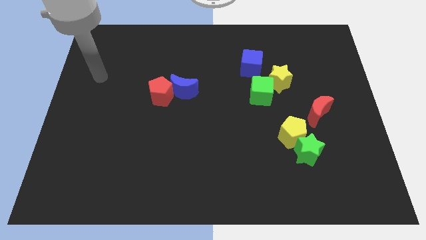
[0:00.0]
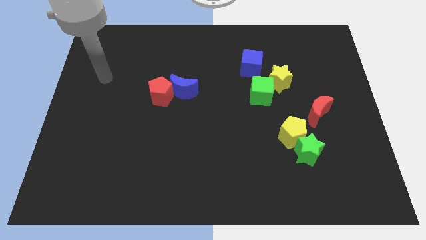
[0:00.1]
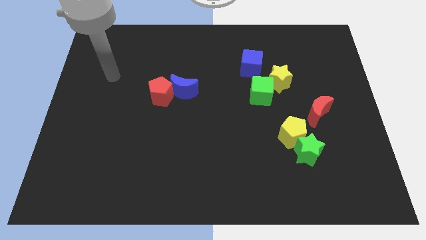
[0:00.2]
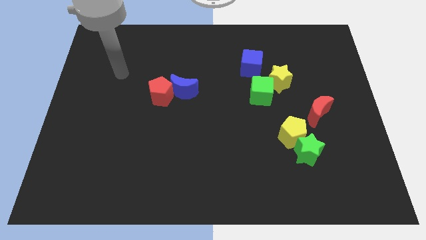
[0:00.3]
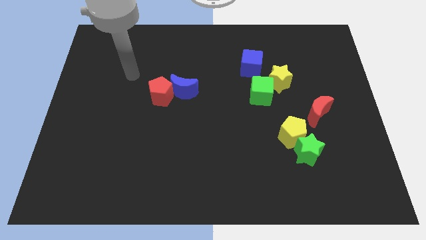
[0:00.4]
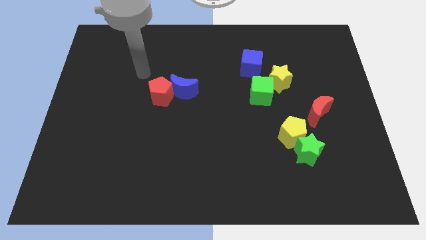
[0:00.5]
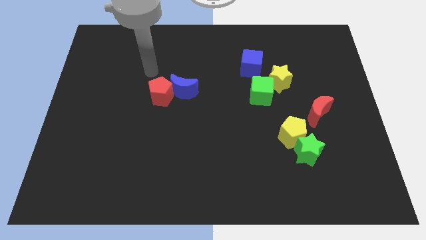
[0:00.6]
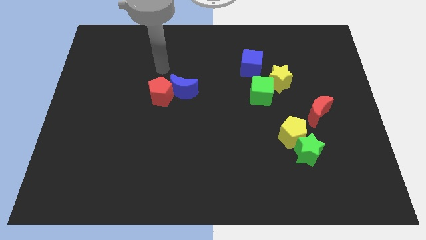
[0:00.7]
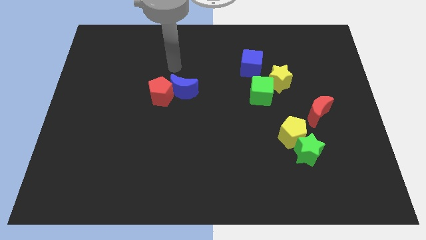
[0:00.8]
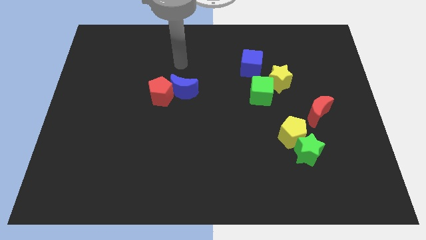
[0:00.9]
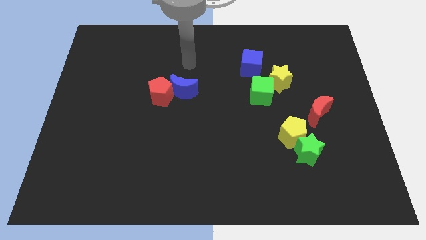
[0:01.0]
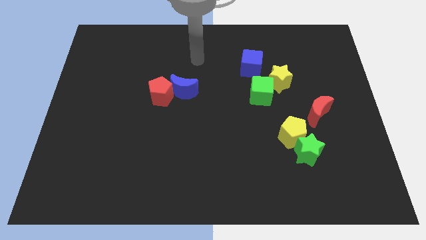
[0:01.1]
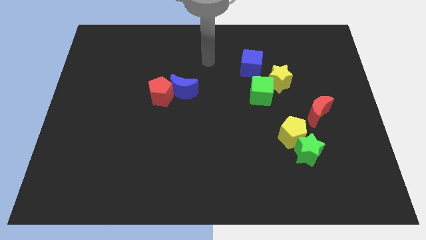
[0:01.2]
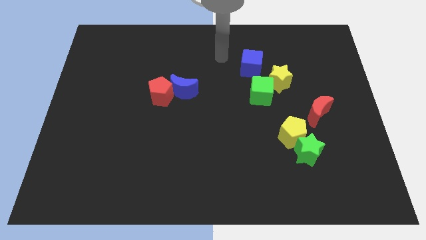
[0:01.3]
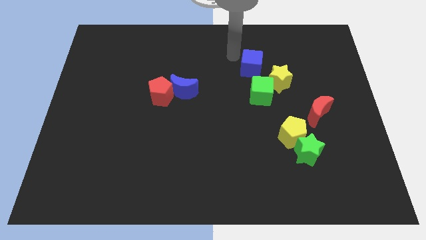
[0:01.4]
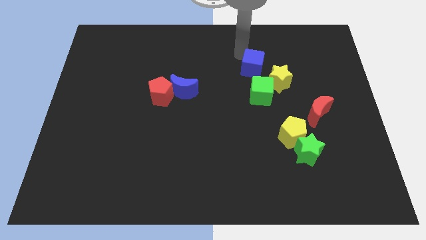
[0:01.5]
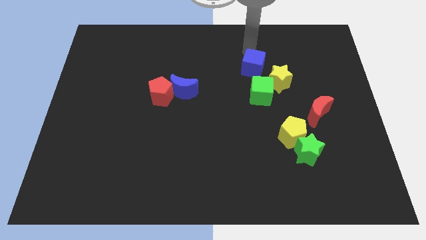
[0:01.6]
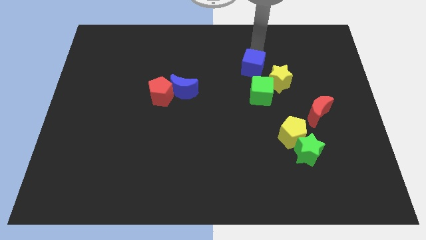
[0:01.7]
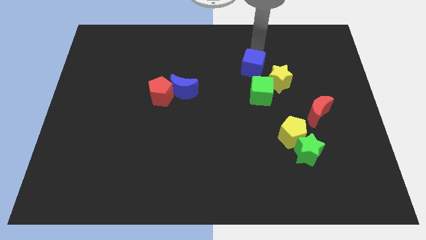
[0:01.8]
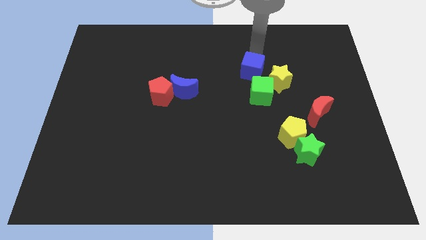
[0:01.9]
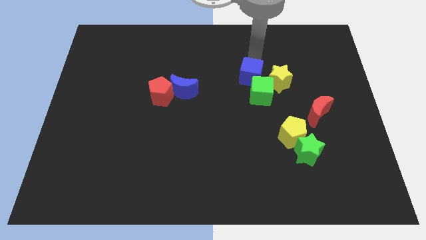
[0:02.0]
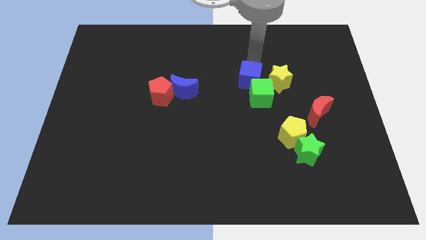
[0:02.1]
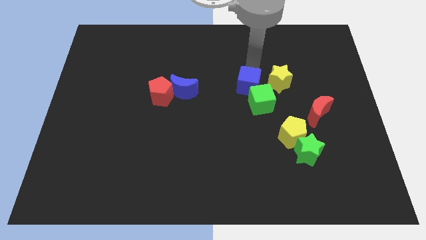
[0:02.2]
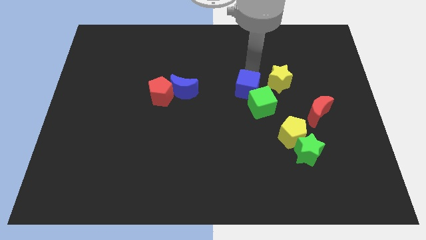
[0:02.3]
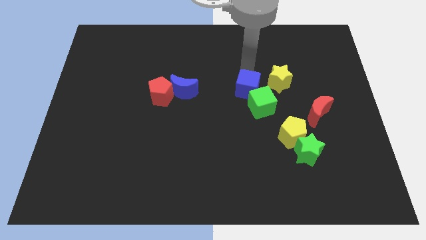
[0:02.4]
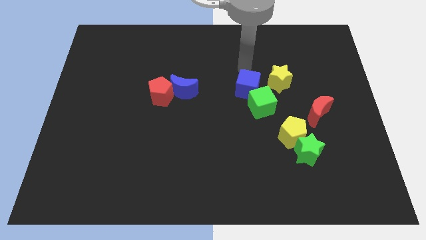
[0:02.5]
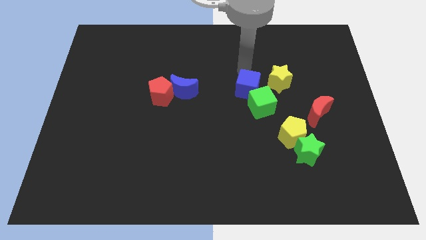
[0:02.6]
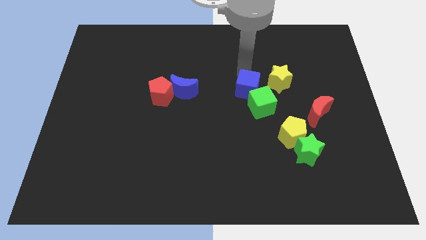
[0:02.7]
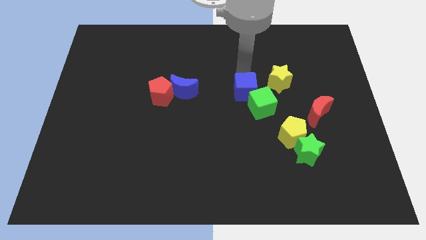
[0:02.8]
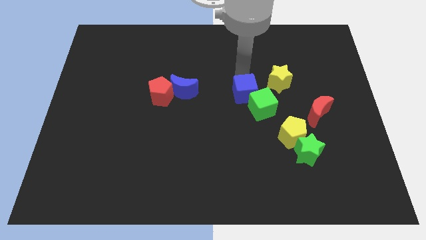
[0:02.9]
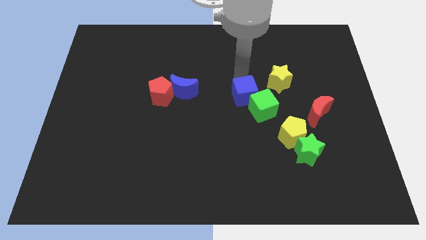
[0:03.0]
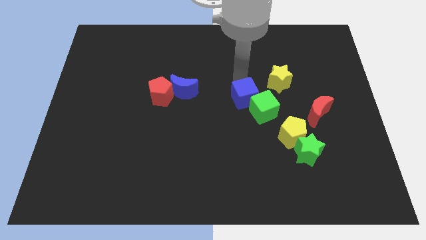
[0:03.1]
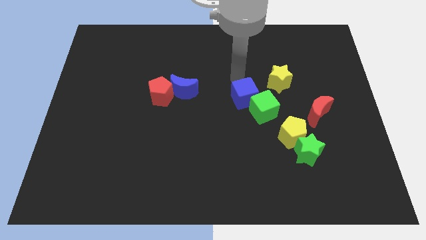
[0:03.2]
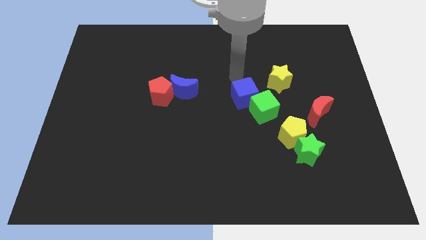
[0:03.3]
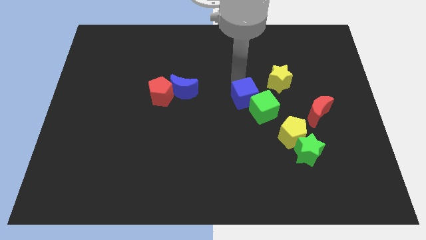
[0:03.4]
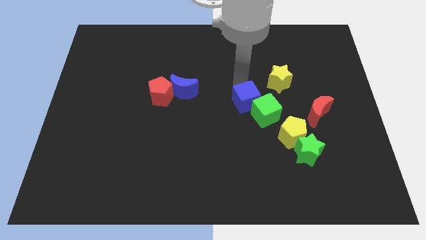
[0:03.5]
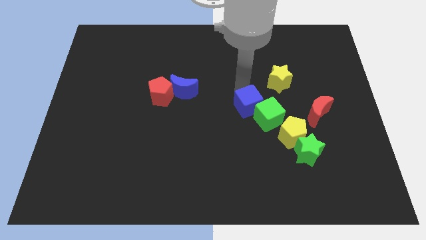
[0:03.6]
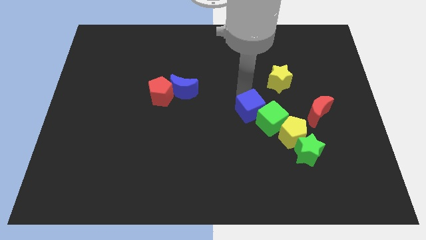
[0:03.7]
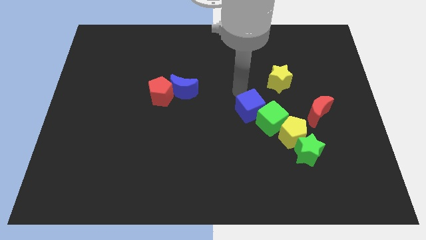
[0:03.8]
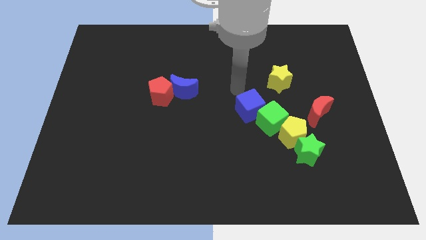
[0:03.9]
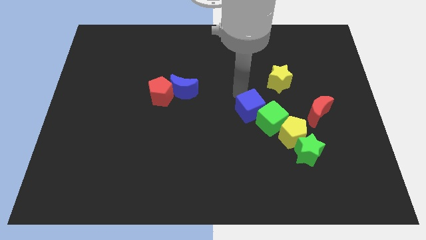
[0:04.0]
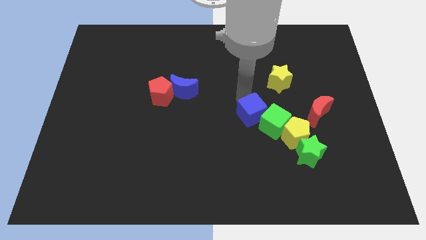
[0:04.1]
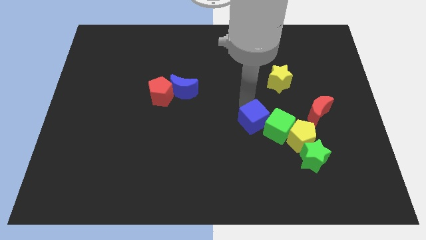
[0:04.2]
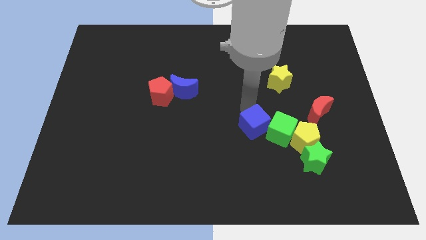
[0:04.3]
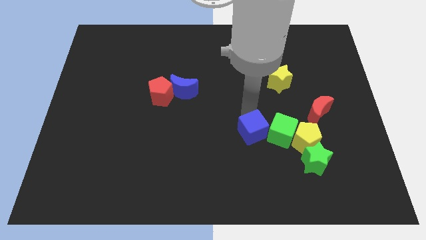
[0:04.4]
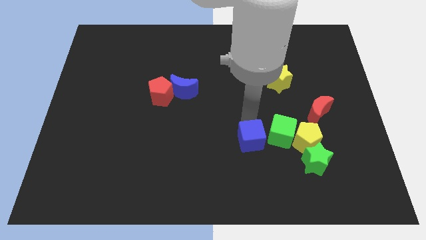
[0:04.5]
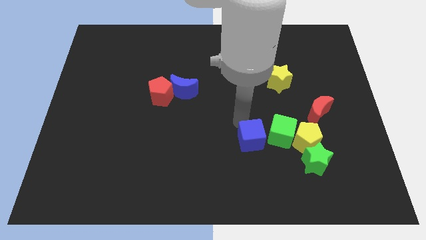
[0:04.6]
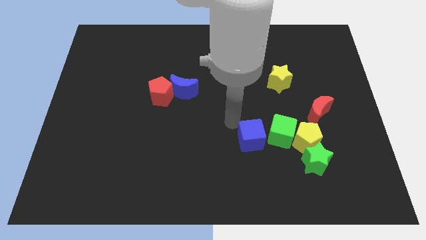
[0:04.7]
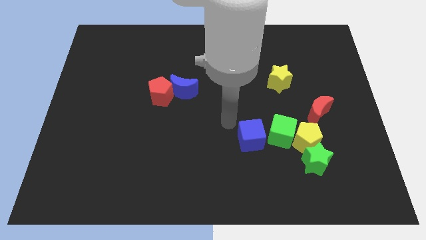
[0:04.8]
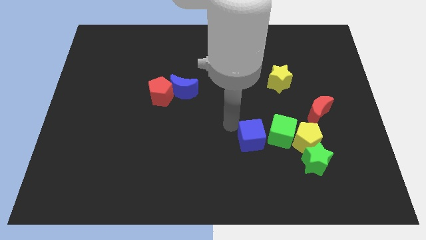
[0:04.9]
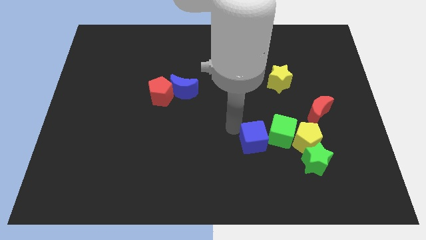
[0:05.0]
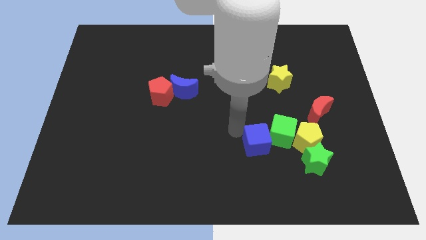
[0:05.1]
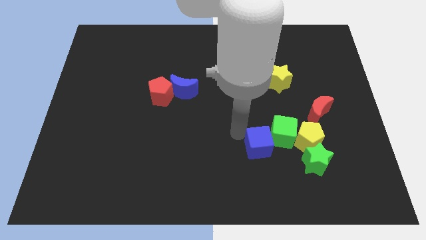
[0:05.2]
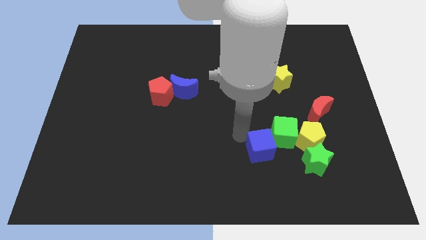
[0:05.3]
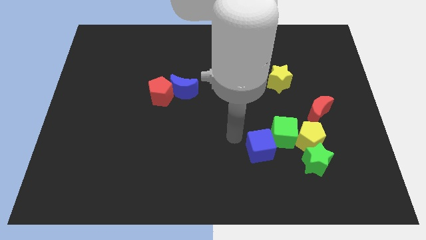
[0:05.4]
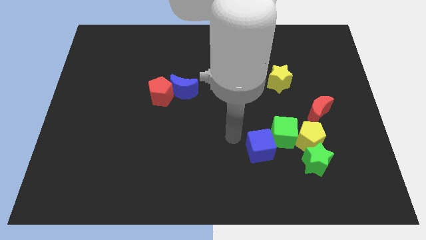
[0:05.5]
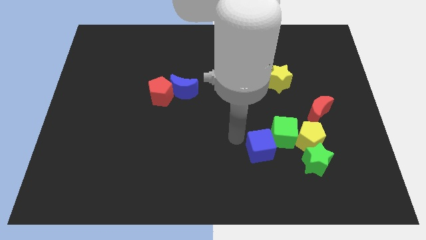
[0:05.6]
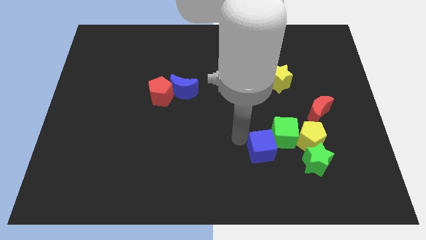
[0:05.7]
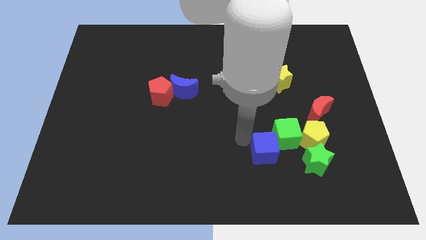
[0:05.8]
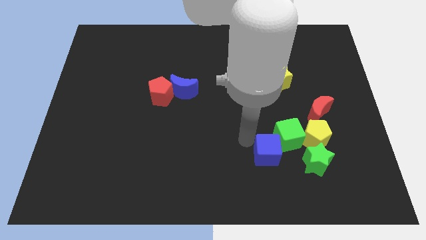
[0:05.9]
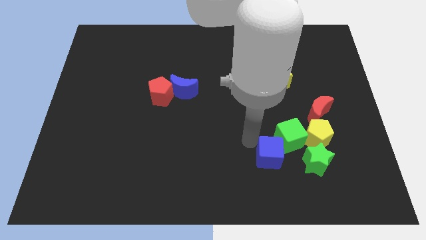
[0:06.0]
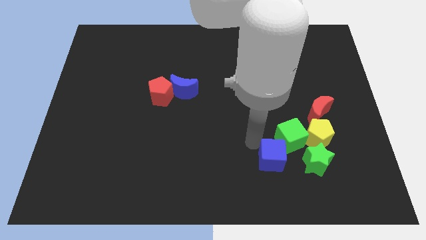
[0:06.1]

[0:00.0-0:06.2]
push the blue cube diagonally down and to the left of the yellow pentagon
